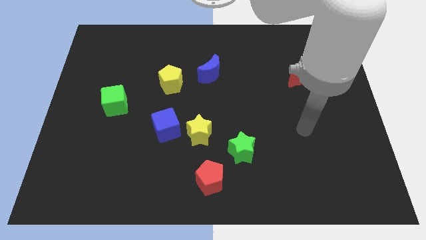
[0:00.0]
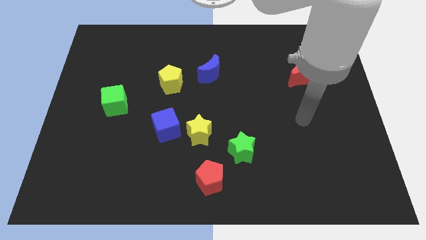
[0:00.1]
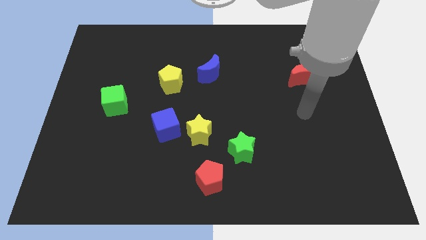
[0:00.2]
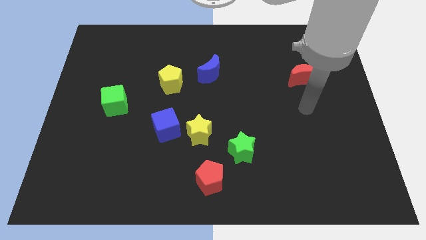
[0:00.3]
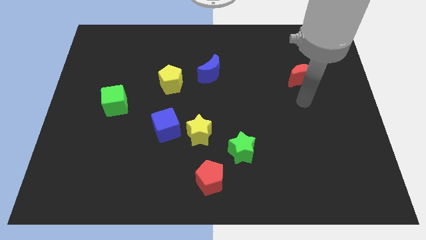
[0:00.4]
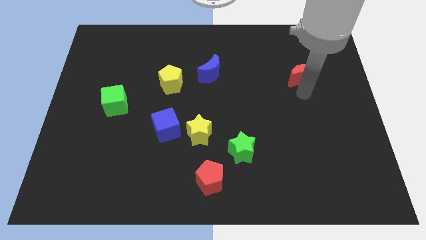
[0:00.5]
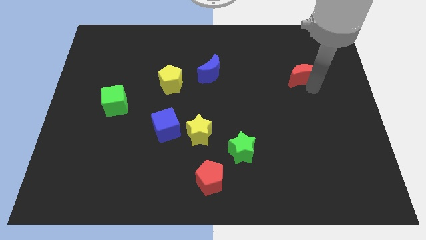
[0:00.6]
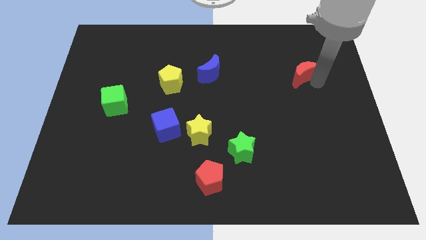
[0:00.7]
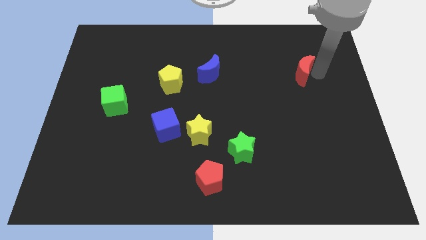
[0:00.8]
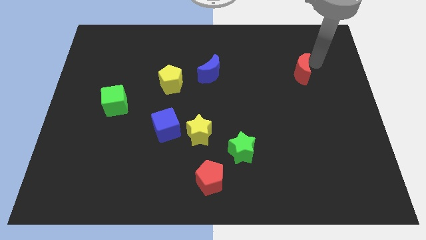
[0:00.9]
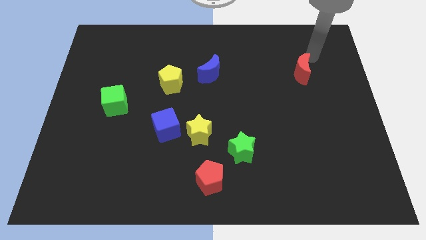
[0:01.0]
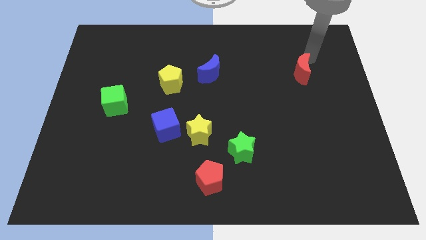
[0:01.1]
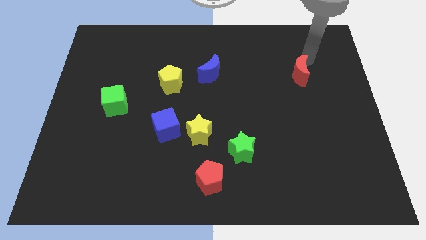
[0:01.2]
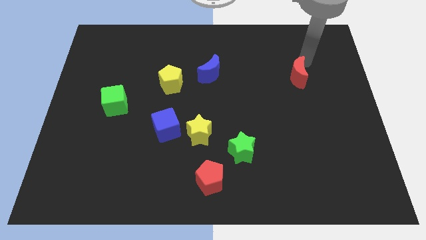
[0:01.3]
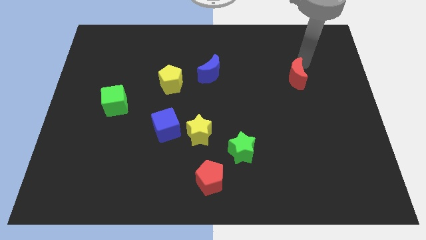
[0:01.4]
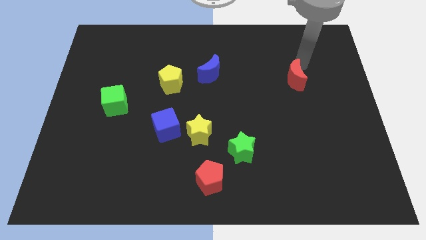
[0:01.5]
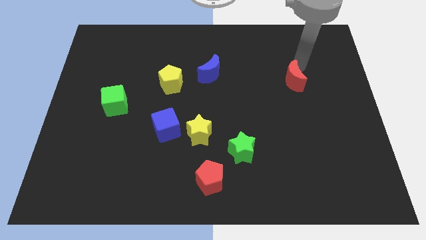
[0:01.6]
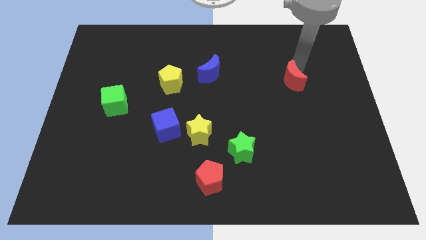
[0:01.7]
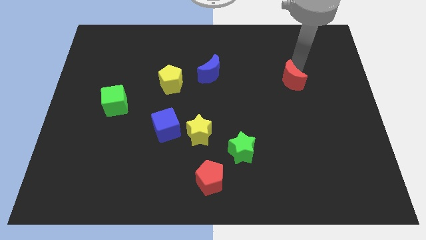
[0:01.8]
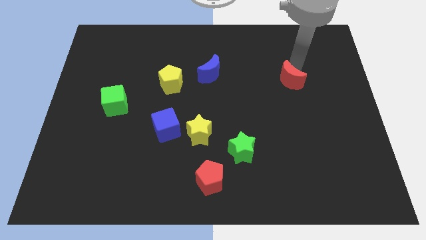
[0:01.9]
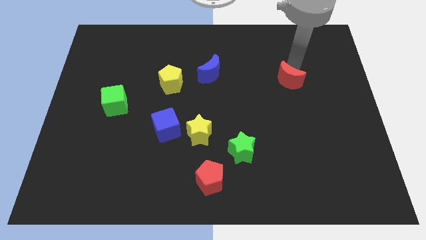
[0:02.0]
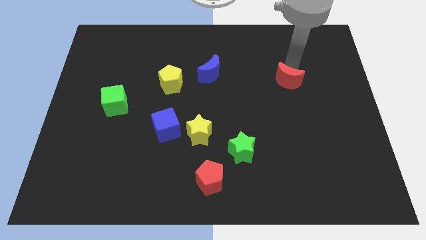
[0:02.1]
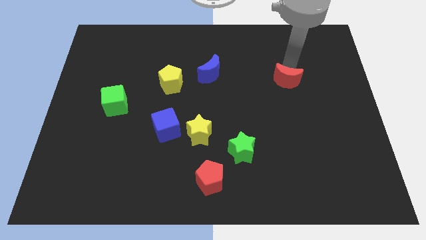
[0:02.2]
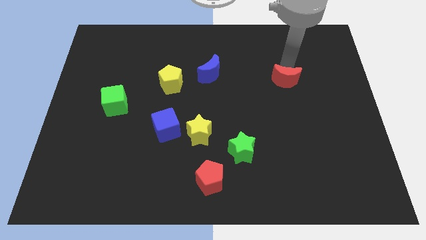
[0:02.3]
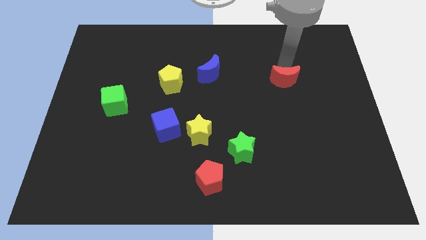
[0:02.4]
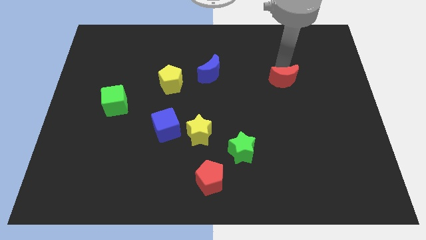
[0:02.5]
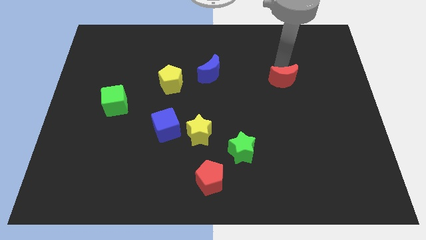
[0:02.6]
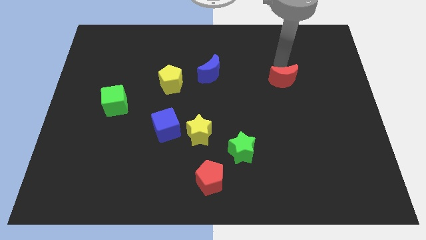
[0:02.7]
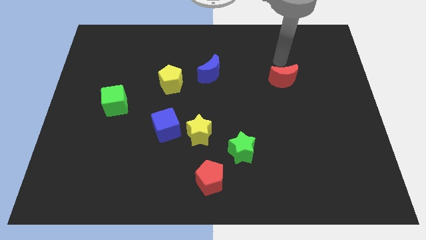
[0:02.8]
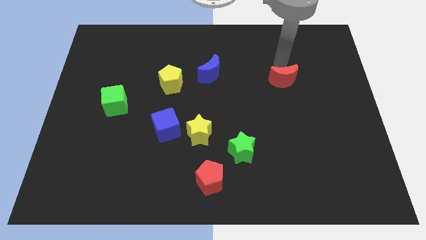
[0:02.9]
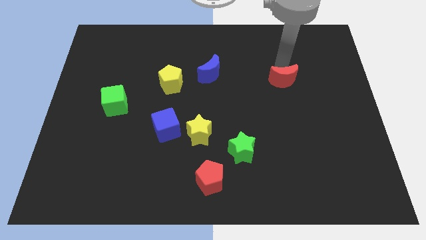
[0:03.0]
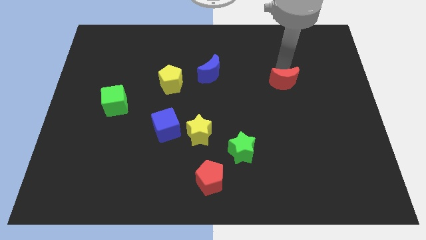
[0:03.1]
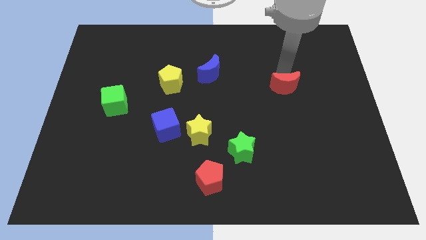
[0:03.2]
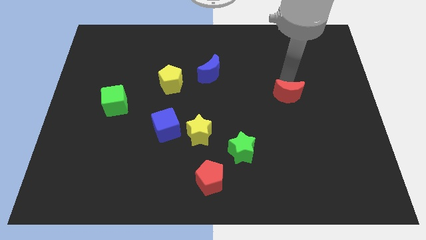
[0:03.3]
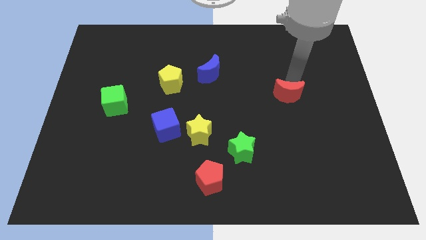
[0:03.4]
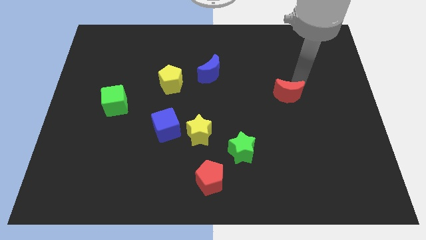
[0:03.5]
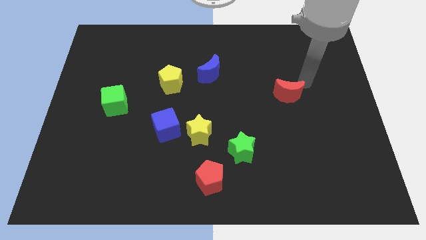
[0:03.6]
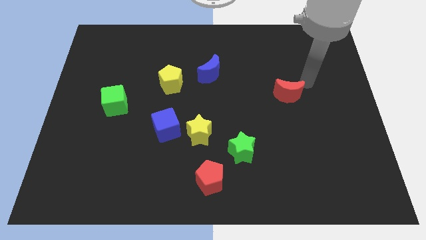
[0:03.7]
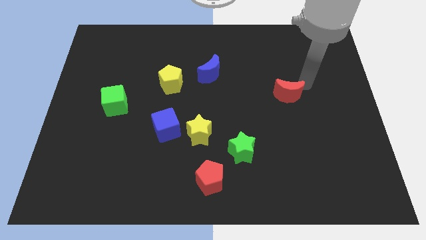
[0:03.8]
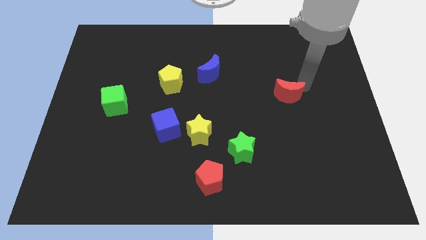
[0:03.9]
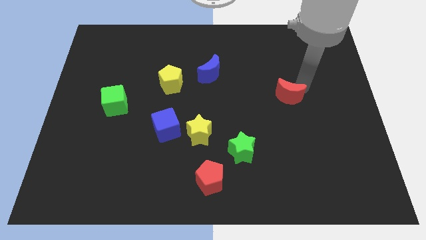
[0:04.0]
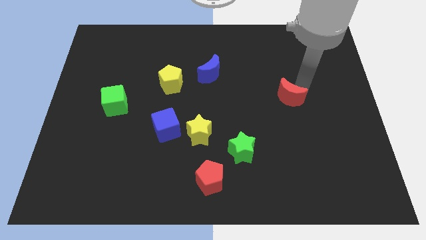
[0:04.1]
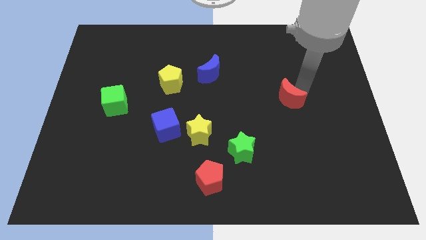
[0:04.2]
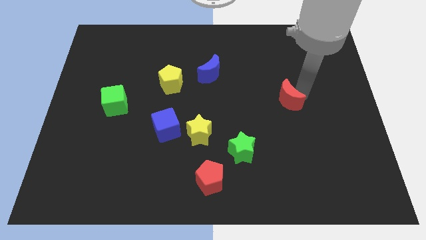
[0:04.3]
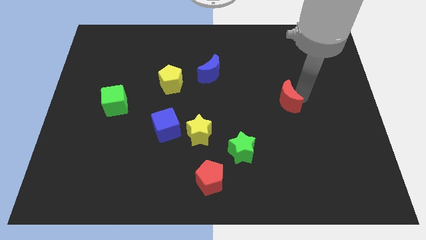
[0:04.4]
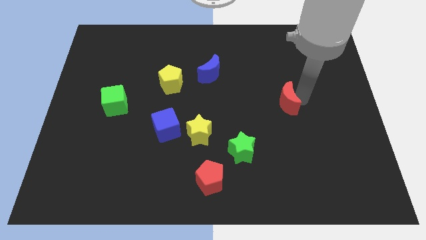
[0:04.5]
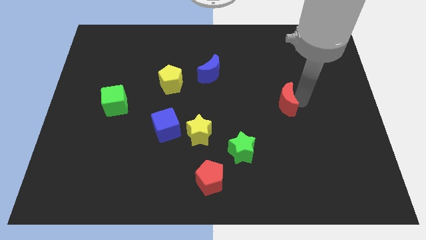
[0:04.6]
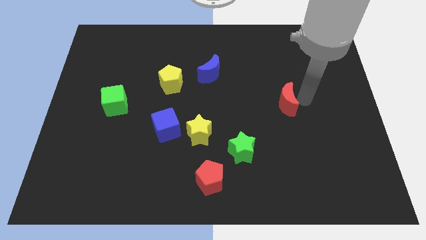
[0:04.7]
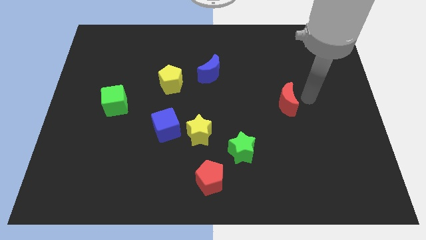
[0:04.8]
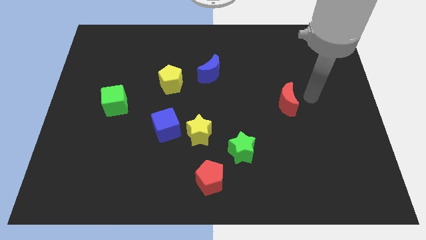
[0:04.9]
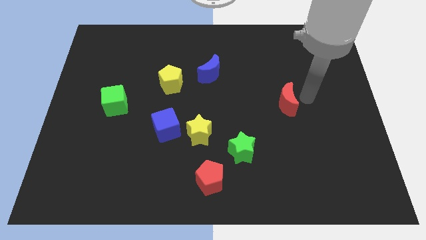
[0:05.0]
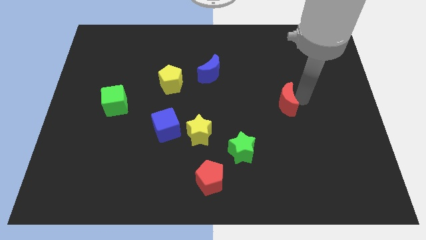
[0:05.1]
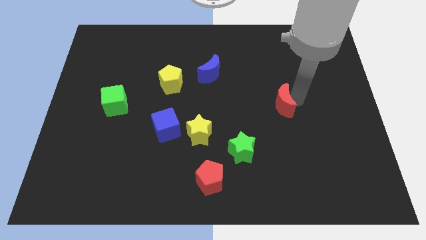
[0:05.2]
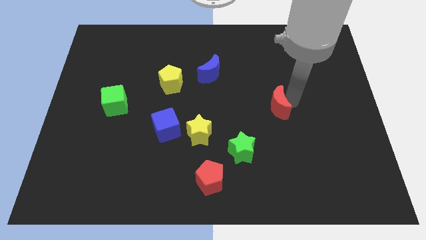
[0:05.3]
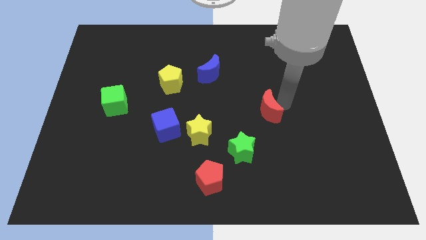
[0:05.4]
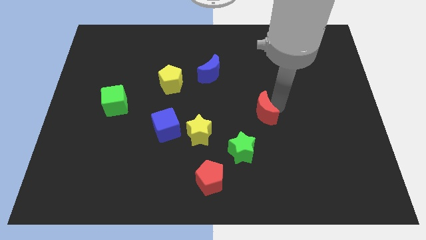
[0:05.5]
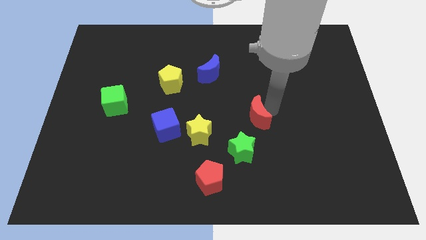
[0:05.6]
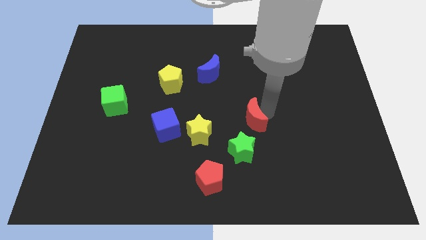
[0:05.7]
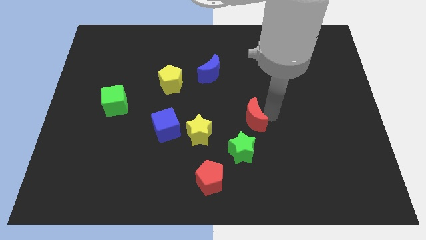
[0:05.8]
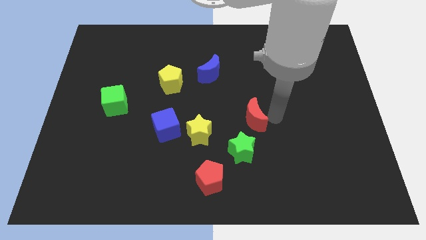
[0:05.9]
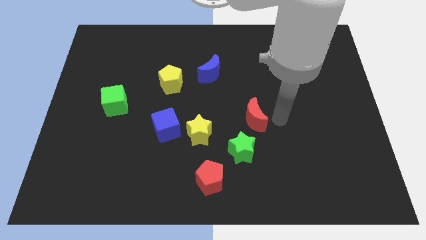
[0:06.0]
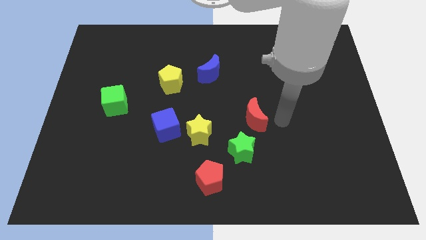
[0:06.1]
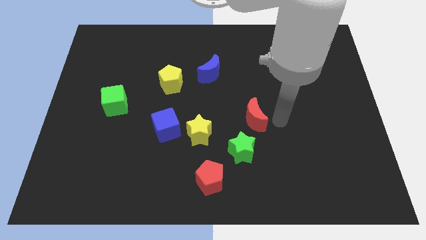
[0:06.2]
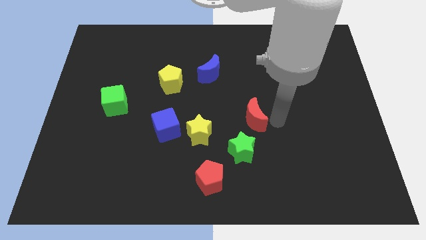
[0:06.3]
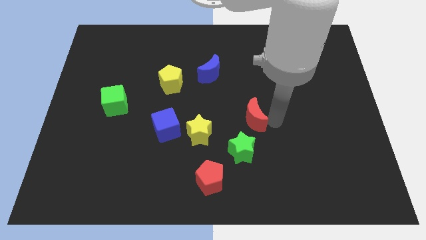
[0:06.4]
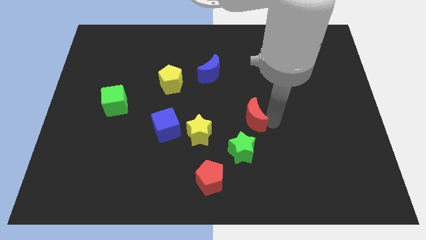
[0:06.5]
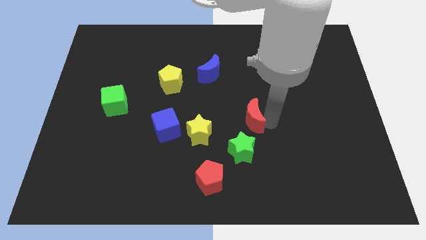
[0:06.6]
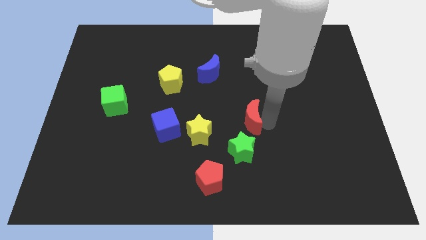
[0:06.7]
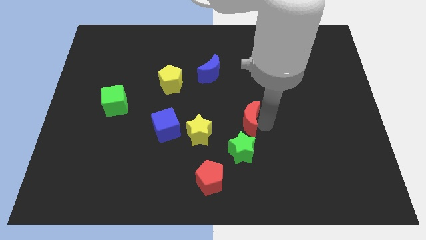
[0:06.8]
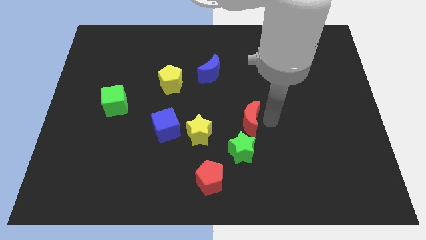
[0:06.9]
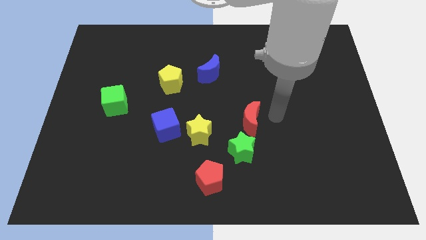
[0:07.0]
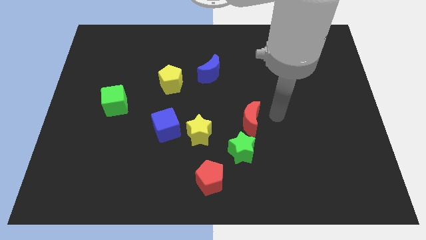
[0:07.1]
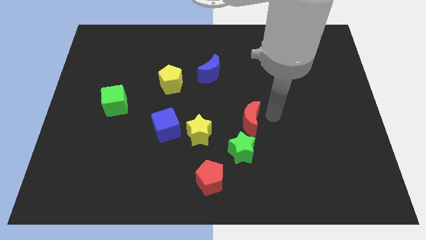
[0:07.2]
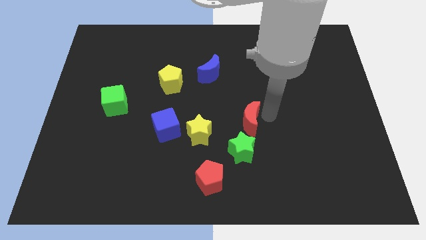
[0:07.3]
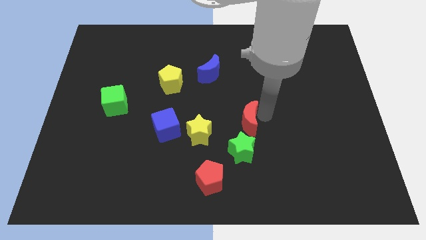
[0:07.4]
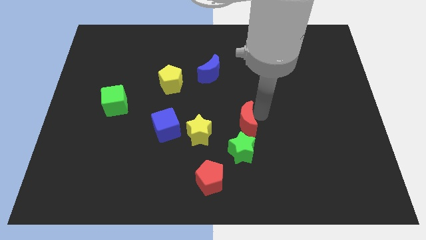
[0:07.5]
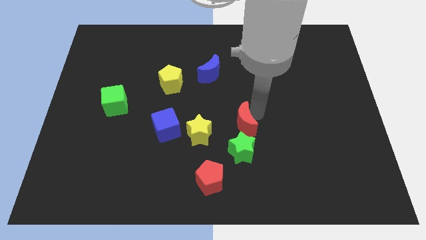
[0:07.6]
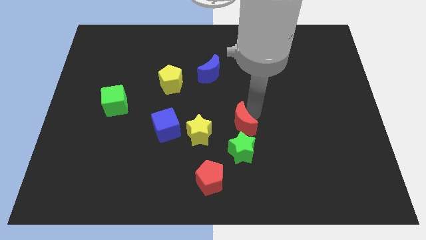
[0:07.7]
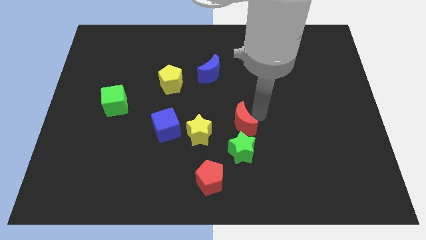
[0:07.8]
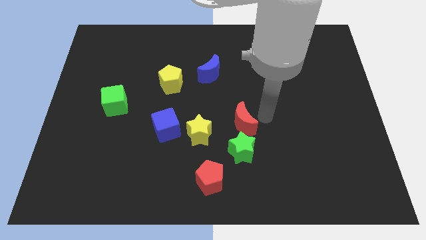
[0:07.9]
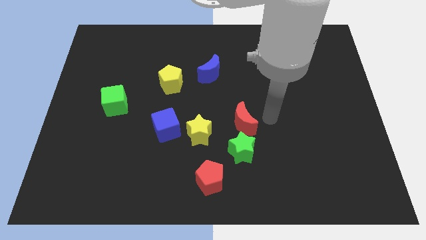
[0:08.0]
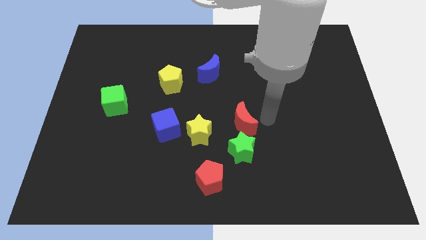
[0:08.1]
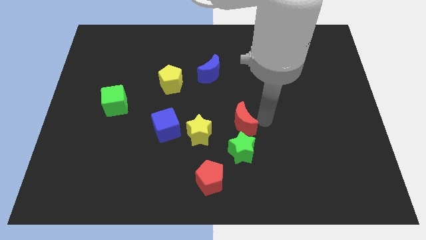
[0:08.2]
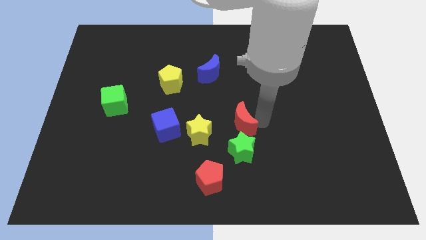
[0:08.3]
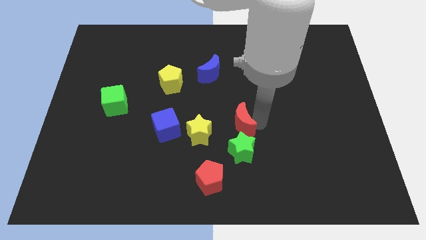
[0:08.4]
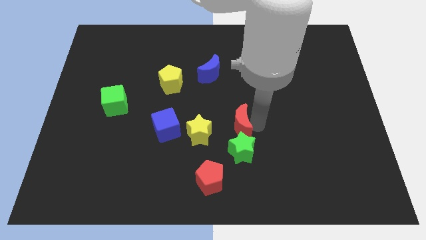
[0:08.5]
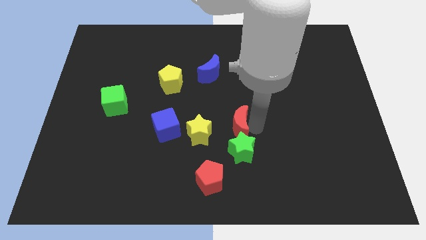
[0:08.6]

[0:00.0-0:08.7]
put the red moon to the right side of the blue cube
